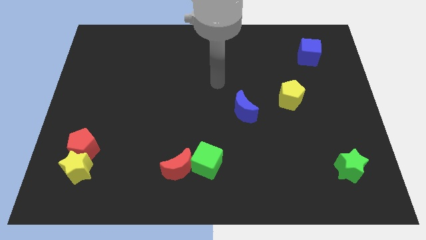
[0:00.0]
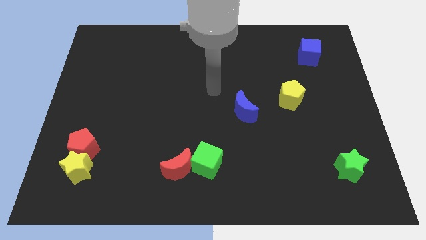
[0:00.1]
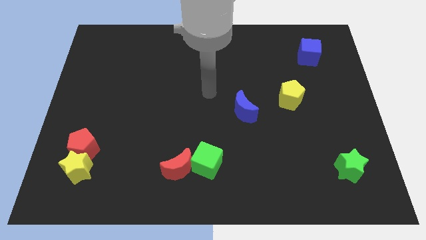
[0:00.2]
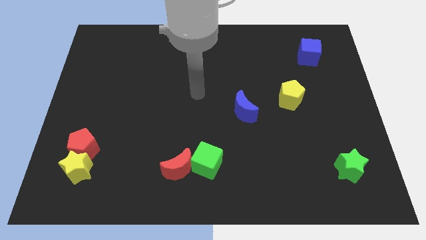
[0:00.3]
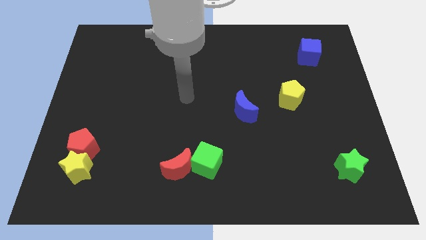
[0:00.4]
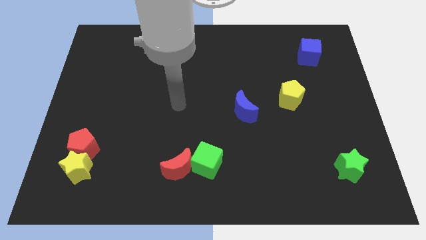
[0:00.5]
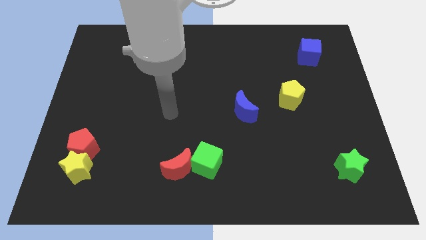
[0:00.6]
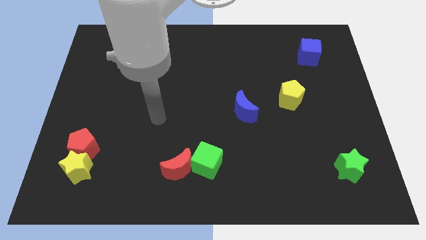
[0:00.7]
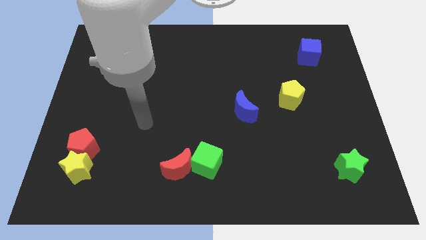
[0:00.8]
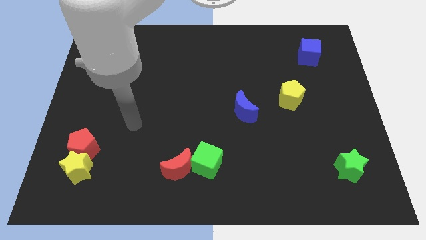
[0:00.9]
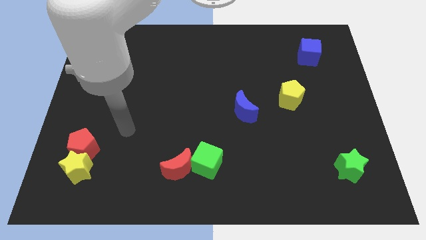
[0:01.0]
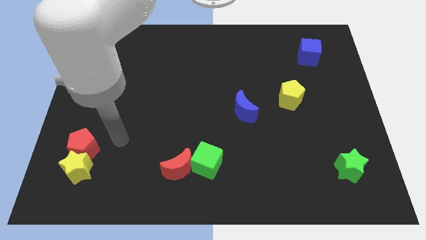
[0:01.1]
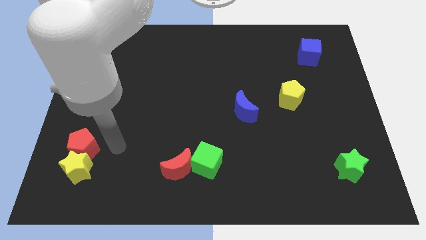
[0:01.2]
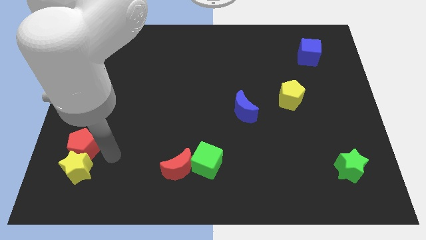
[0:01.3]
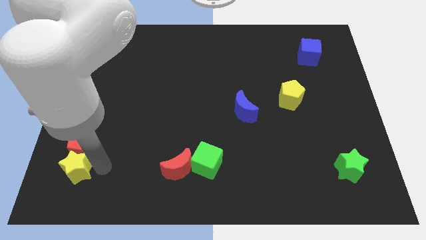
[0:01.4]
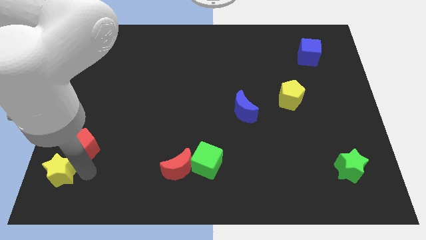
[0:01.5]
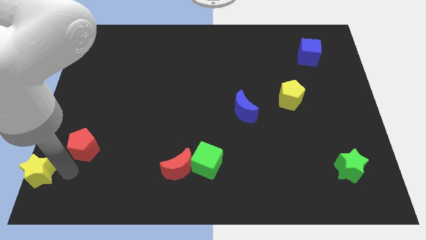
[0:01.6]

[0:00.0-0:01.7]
pull the red pentagon apart from the yellow star

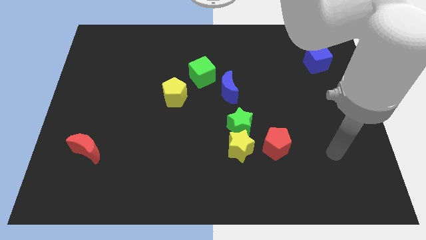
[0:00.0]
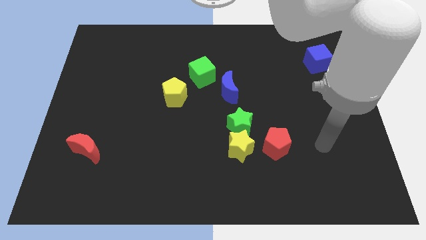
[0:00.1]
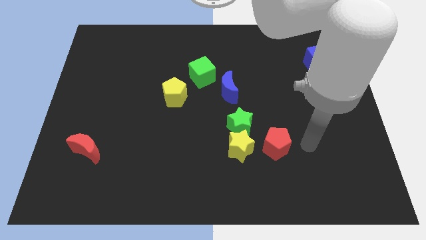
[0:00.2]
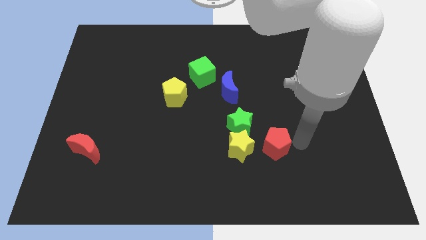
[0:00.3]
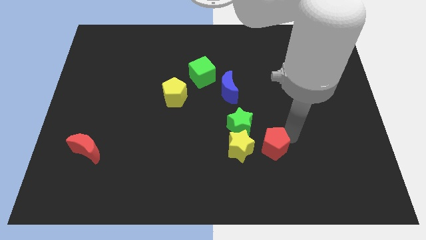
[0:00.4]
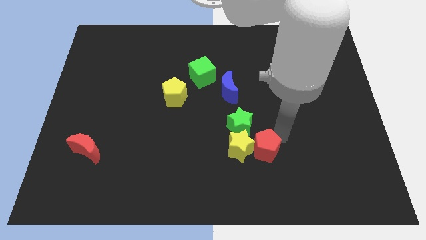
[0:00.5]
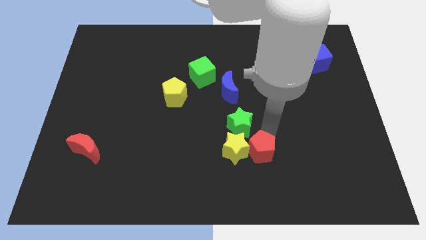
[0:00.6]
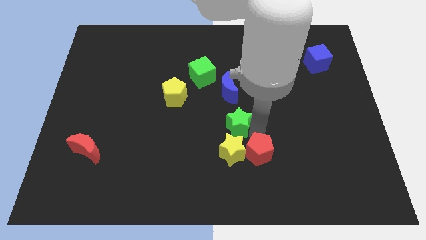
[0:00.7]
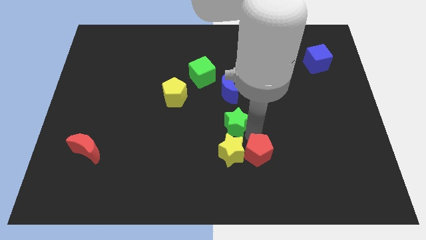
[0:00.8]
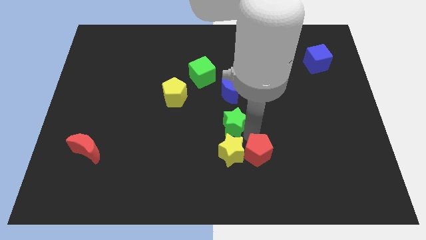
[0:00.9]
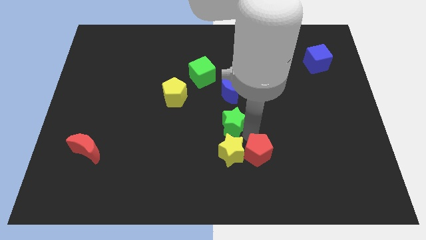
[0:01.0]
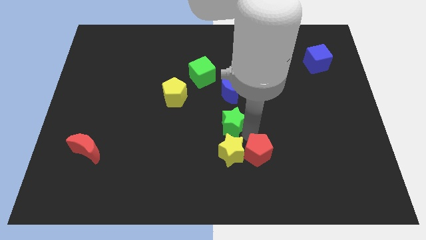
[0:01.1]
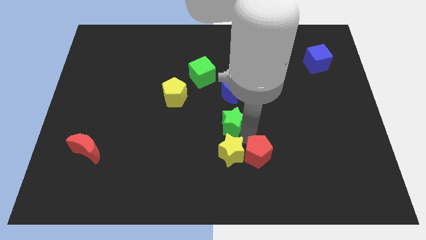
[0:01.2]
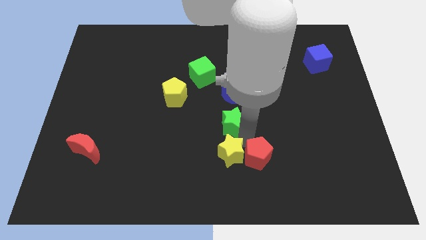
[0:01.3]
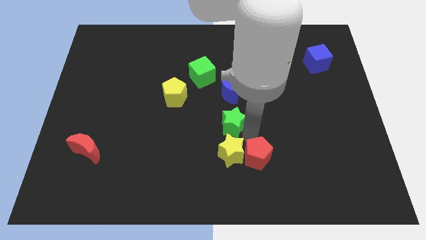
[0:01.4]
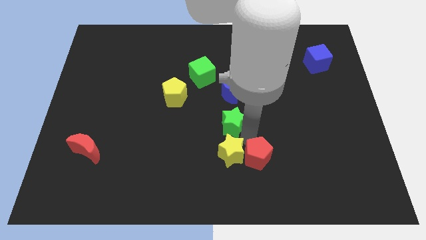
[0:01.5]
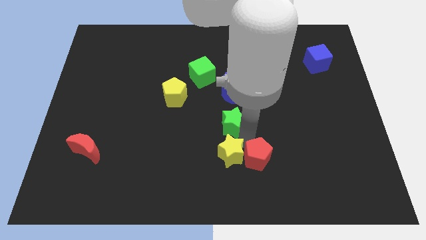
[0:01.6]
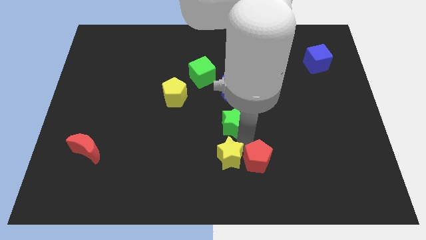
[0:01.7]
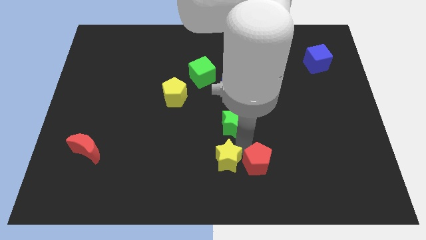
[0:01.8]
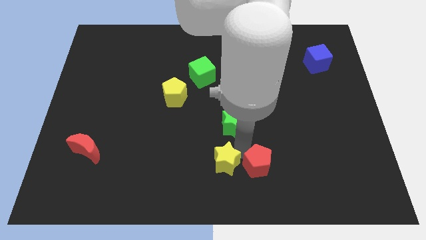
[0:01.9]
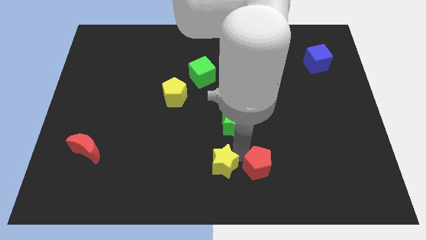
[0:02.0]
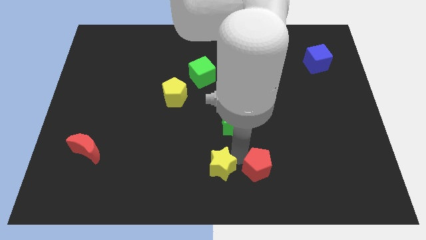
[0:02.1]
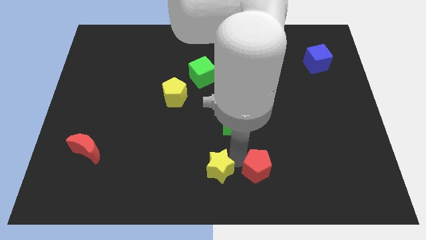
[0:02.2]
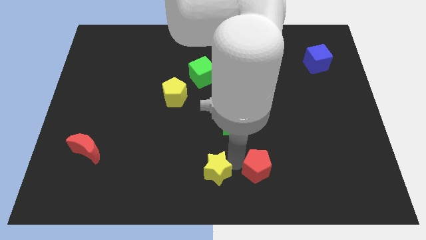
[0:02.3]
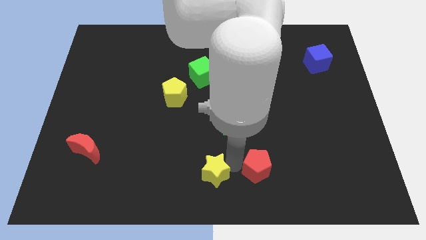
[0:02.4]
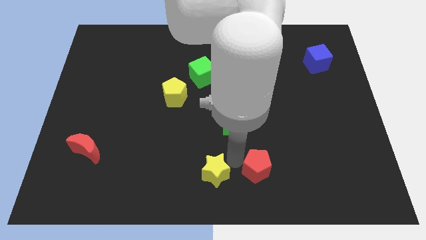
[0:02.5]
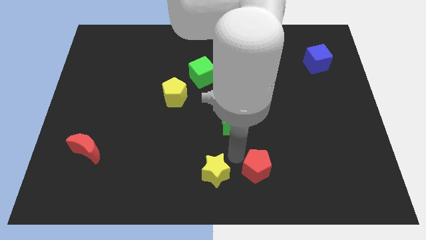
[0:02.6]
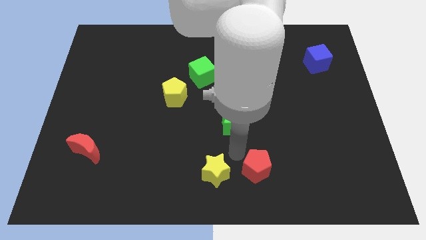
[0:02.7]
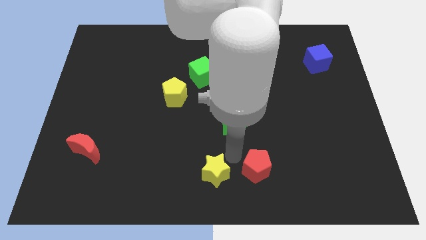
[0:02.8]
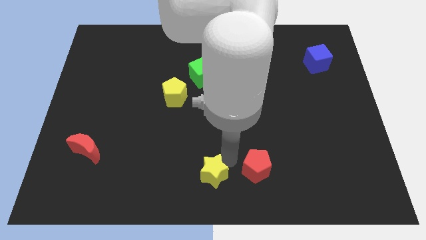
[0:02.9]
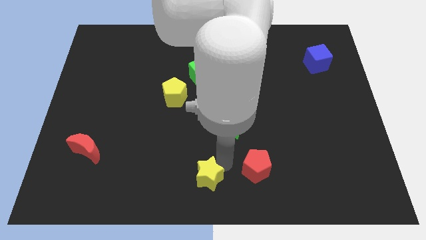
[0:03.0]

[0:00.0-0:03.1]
separate the yellow star from the green star and red pentagon

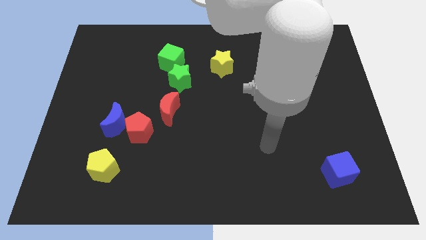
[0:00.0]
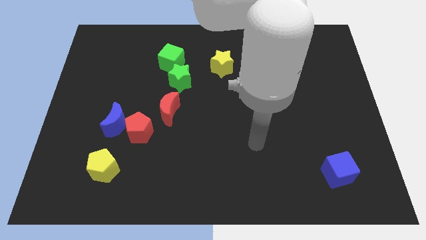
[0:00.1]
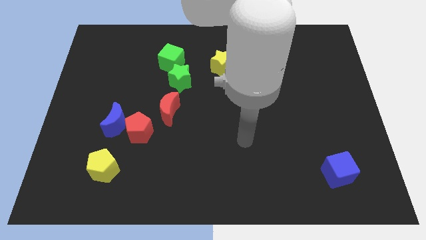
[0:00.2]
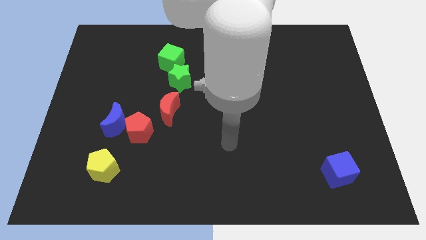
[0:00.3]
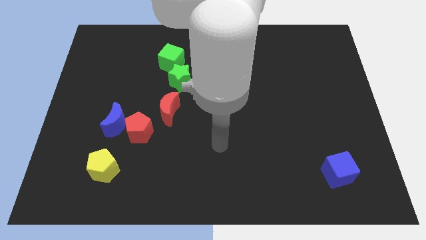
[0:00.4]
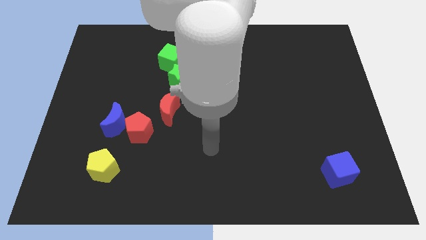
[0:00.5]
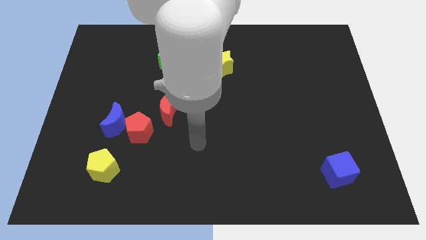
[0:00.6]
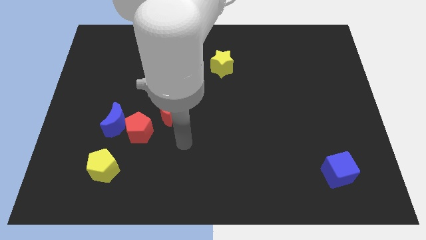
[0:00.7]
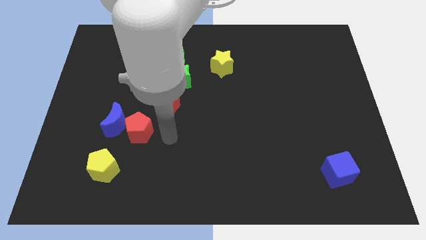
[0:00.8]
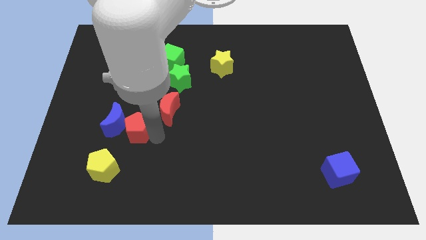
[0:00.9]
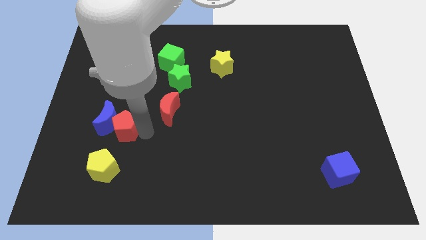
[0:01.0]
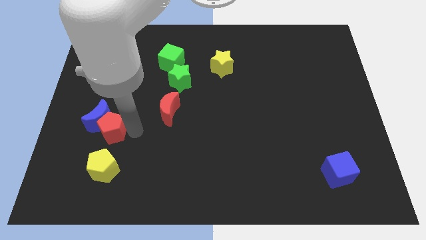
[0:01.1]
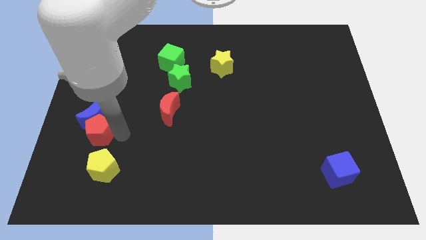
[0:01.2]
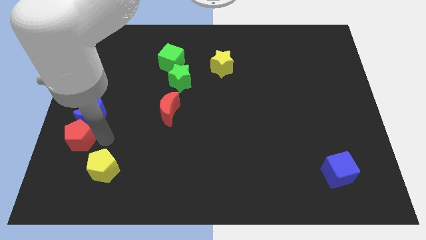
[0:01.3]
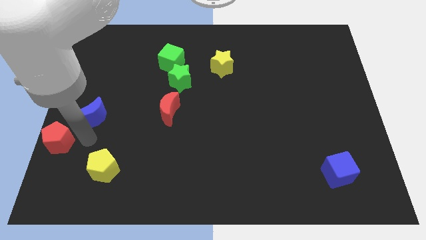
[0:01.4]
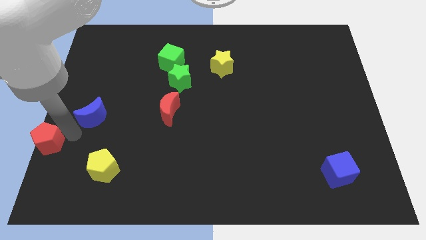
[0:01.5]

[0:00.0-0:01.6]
pull the blue moon apart from the red pentagon

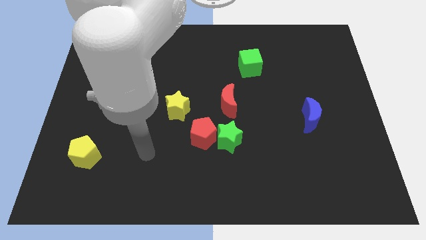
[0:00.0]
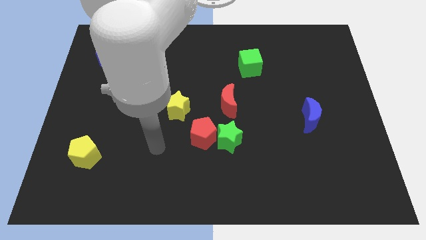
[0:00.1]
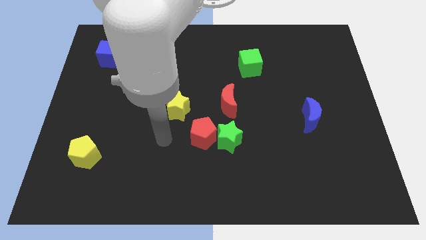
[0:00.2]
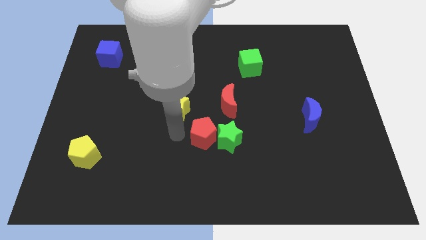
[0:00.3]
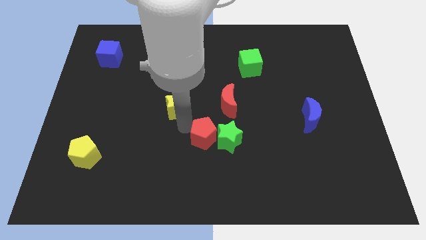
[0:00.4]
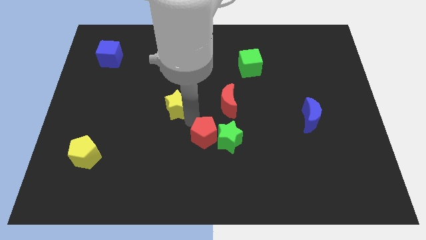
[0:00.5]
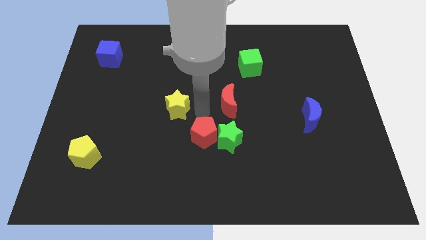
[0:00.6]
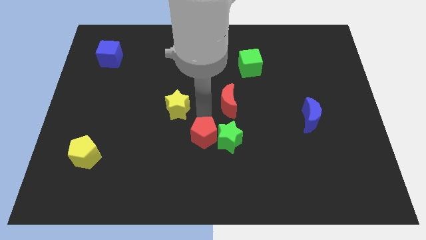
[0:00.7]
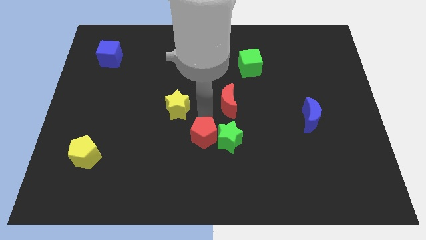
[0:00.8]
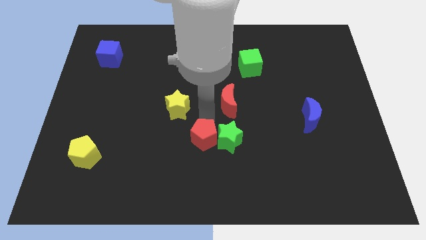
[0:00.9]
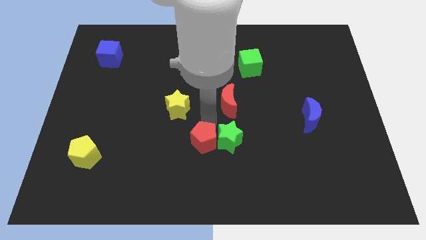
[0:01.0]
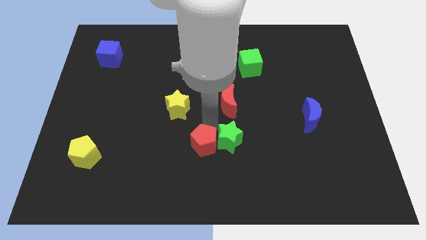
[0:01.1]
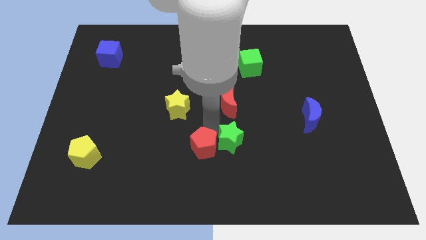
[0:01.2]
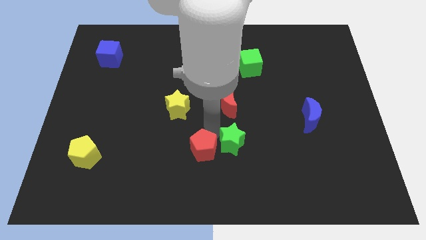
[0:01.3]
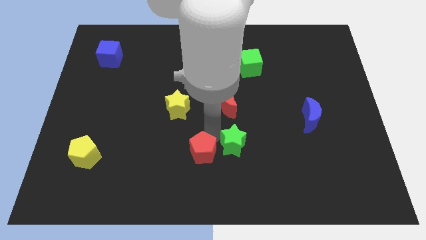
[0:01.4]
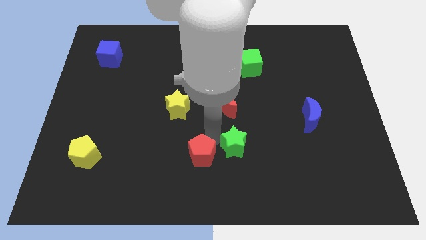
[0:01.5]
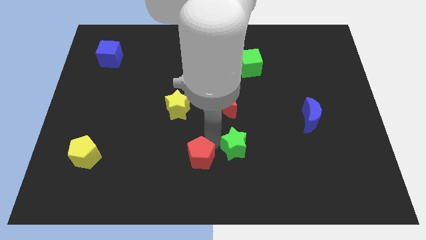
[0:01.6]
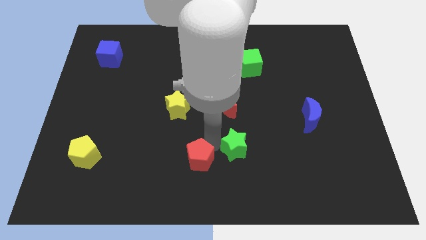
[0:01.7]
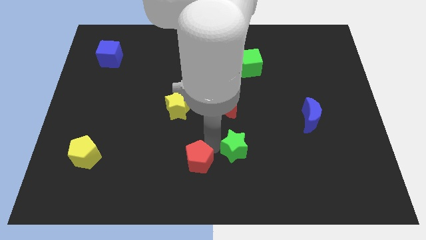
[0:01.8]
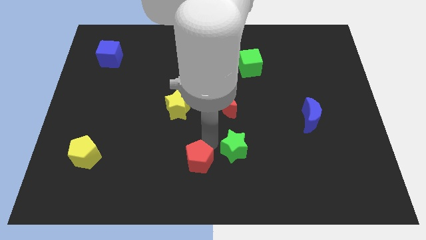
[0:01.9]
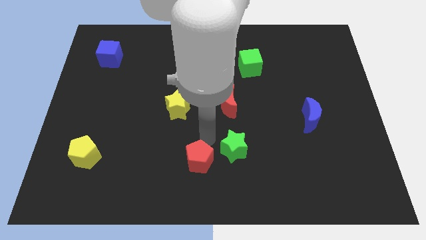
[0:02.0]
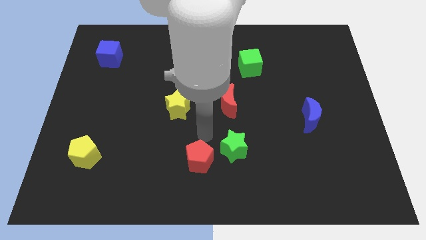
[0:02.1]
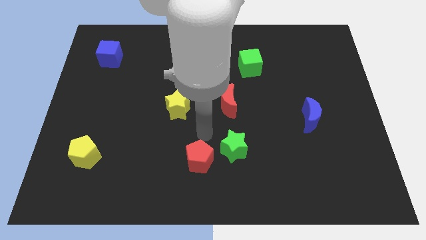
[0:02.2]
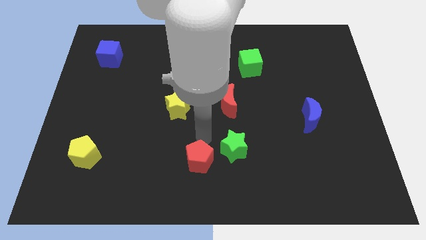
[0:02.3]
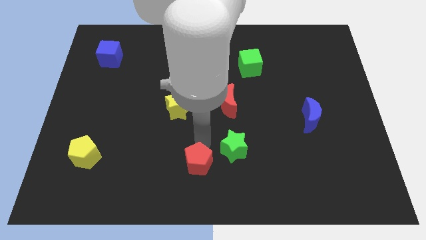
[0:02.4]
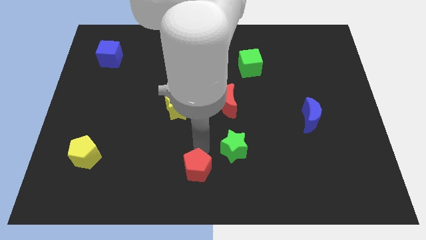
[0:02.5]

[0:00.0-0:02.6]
move the red pentagon away from the green star and yellow star

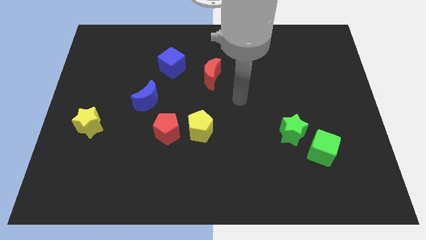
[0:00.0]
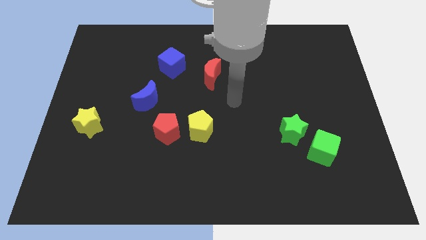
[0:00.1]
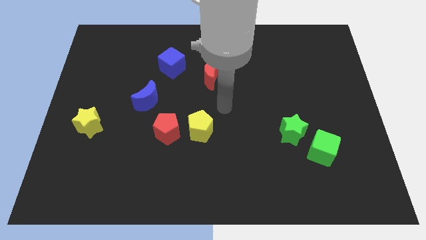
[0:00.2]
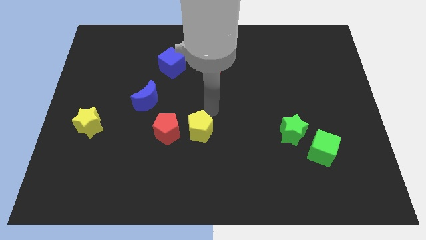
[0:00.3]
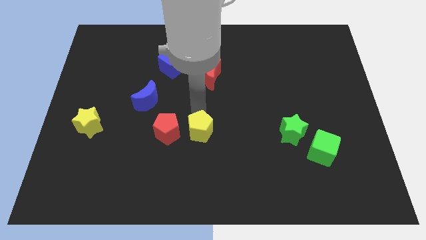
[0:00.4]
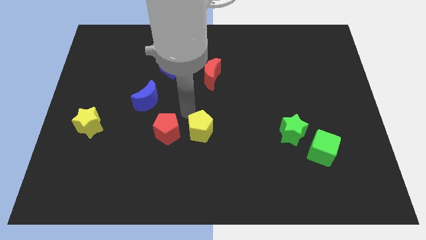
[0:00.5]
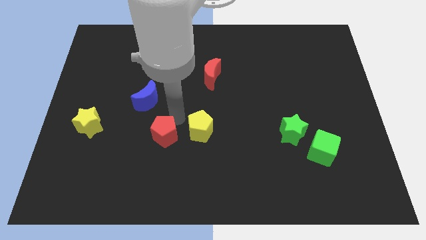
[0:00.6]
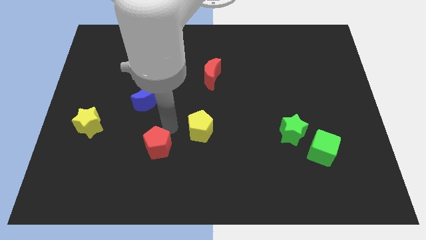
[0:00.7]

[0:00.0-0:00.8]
pull the yellow pentagon apart from the red pentagon
